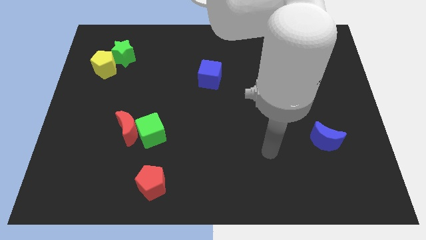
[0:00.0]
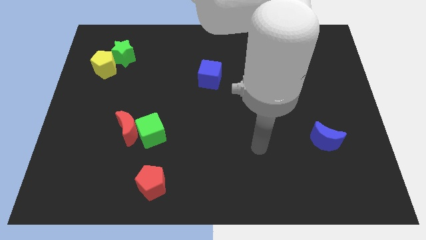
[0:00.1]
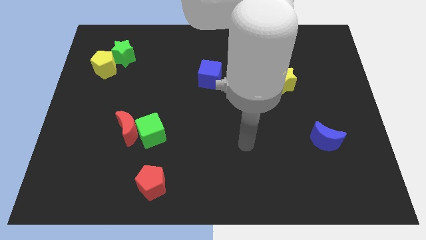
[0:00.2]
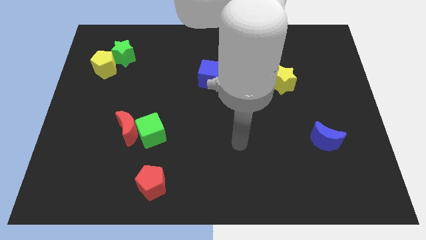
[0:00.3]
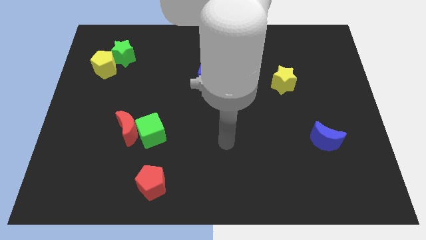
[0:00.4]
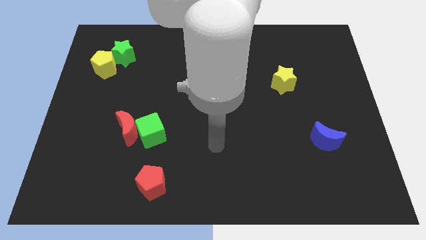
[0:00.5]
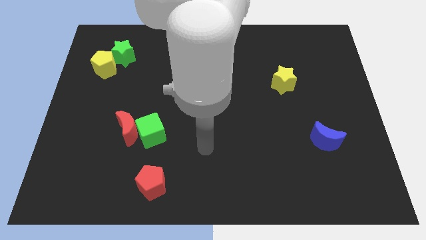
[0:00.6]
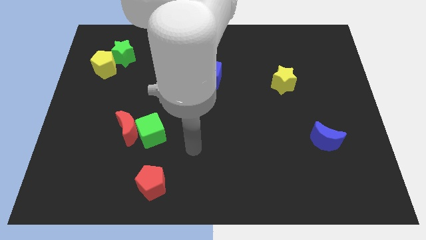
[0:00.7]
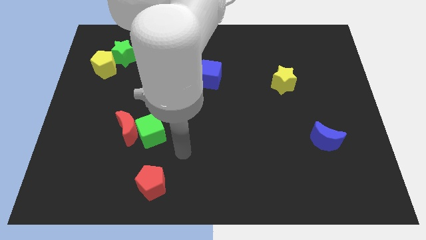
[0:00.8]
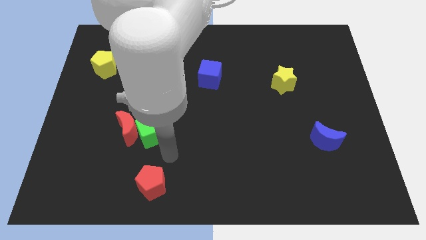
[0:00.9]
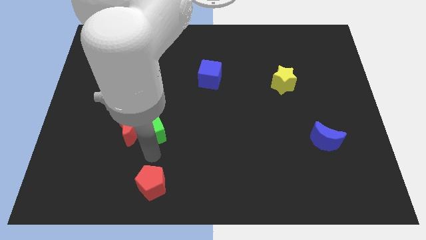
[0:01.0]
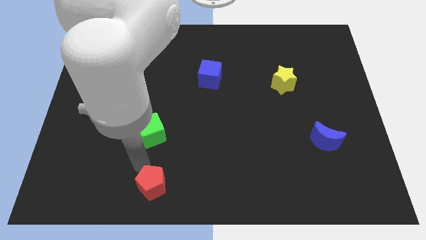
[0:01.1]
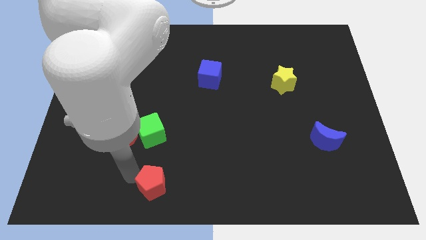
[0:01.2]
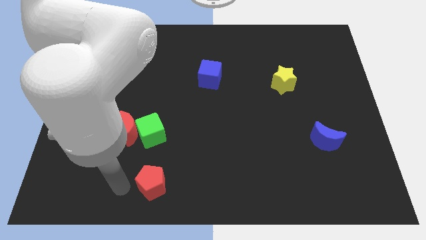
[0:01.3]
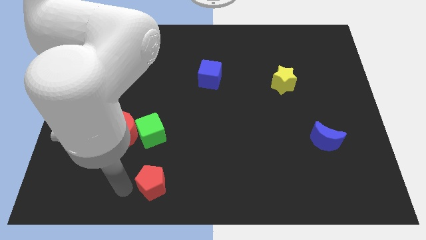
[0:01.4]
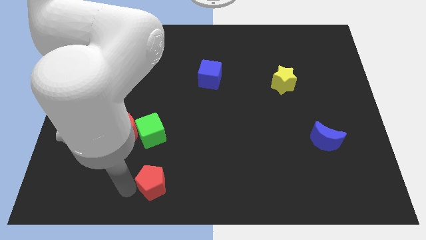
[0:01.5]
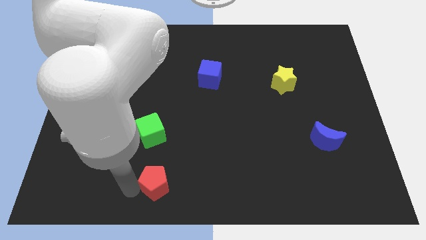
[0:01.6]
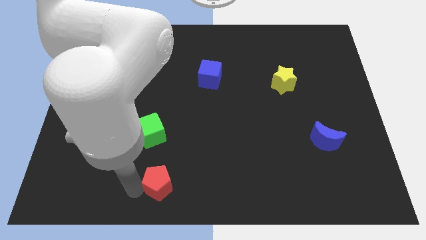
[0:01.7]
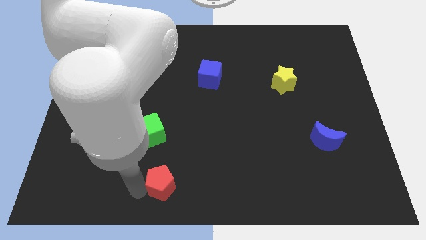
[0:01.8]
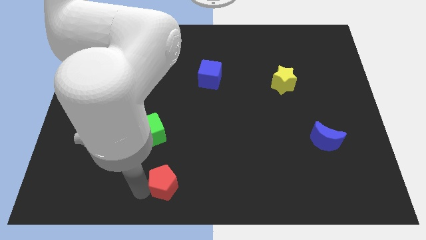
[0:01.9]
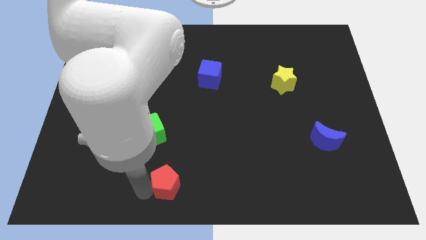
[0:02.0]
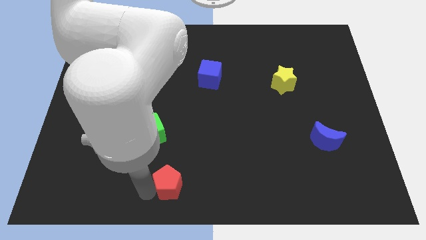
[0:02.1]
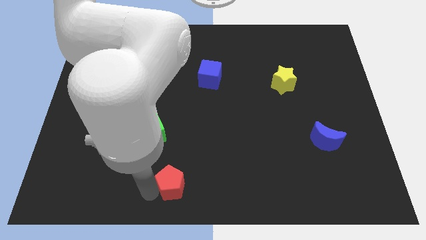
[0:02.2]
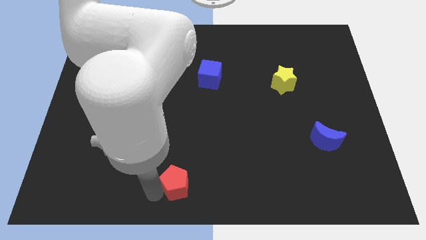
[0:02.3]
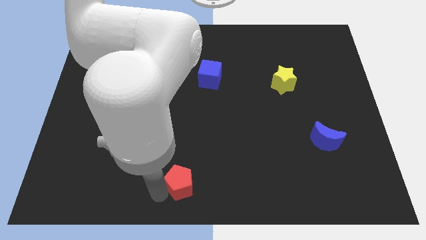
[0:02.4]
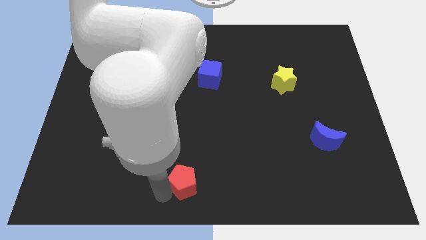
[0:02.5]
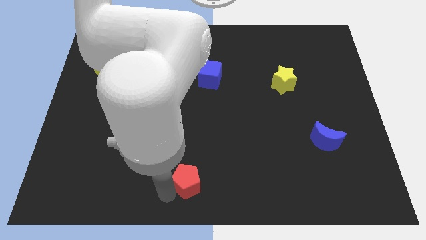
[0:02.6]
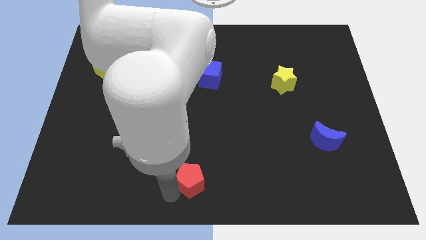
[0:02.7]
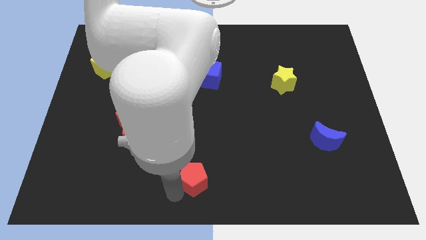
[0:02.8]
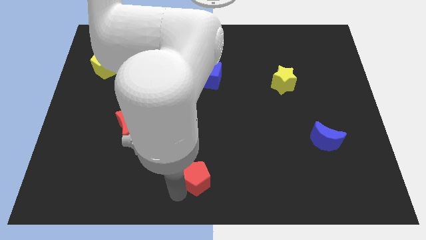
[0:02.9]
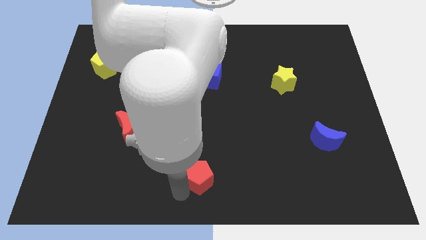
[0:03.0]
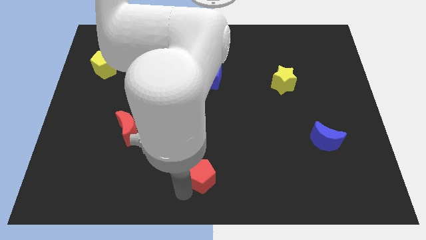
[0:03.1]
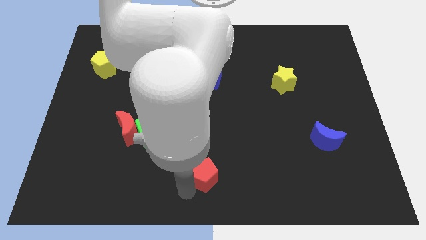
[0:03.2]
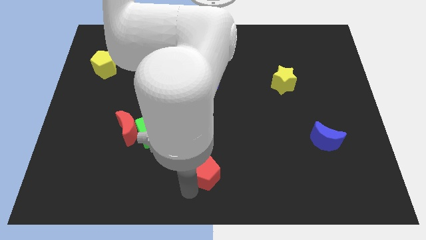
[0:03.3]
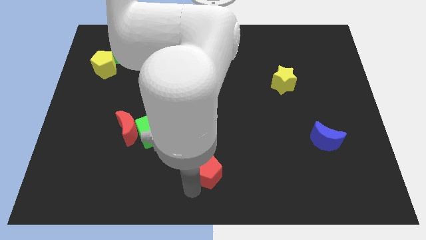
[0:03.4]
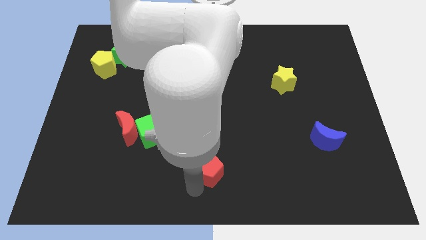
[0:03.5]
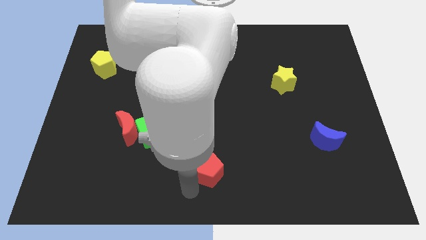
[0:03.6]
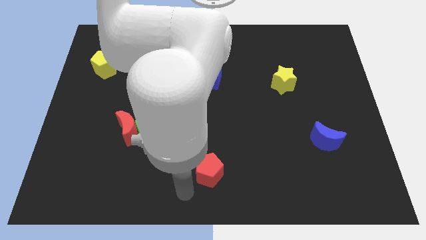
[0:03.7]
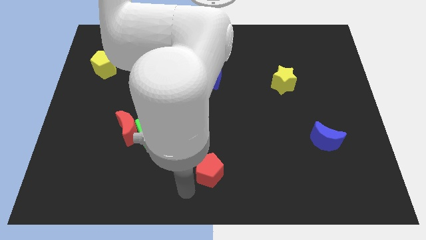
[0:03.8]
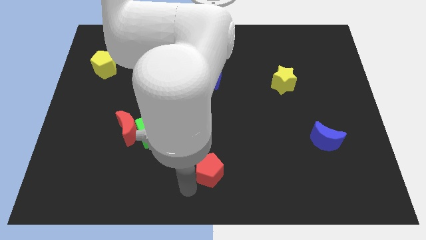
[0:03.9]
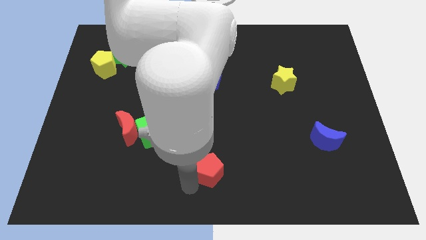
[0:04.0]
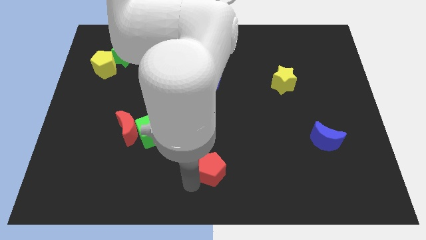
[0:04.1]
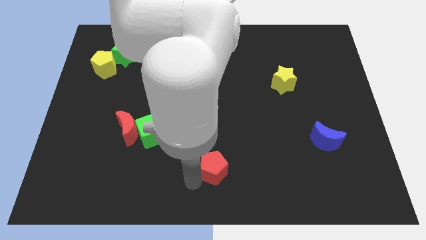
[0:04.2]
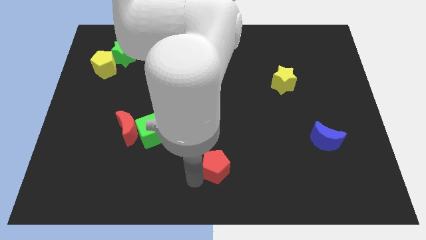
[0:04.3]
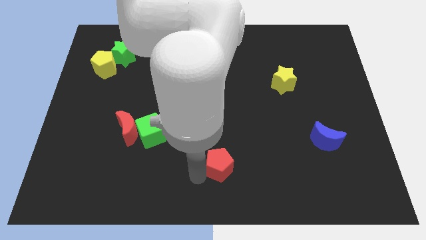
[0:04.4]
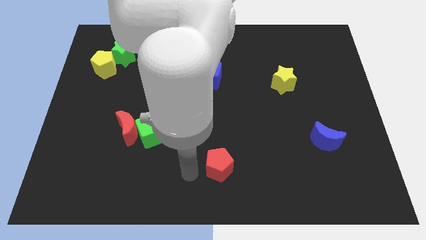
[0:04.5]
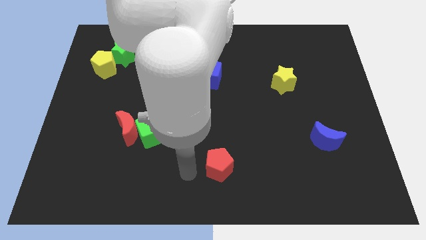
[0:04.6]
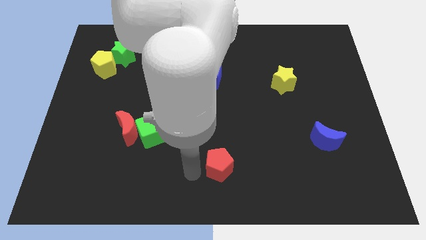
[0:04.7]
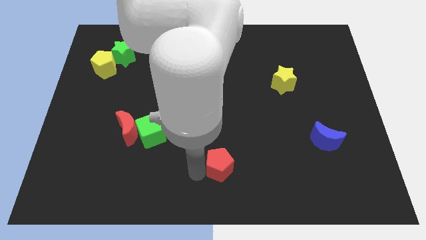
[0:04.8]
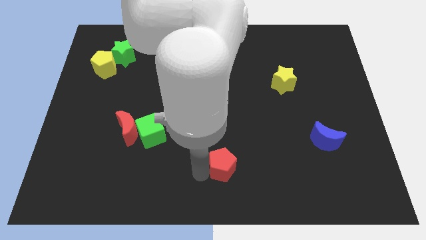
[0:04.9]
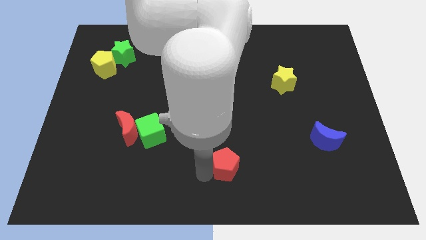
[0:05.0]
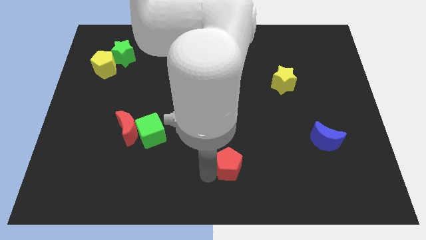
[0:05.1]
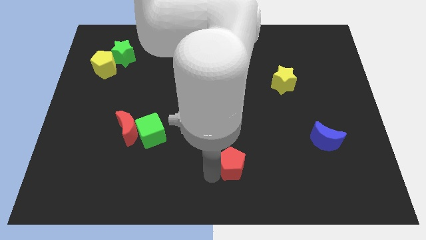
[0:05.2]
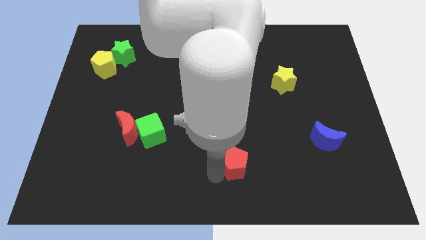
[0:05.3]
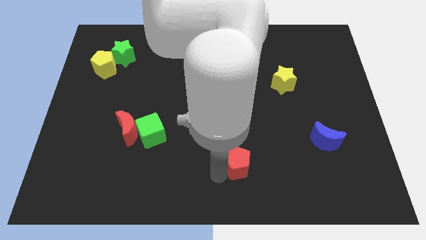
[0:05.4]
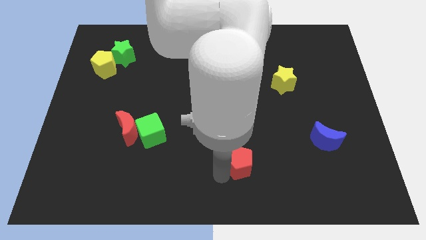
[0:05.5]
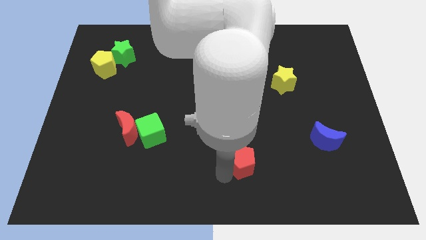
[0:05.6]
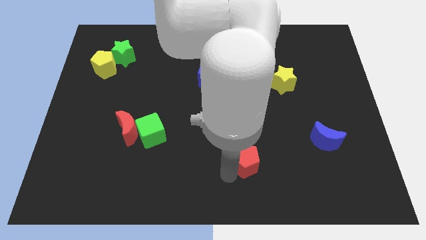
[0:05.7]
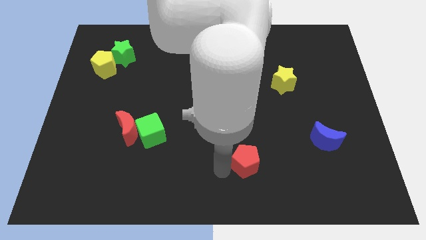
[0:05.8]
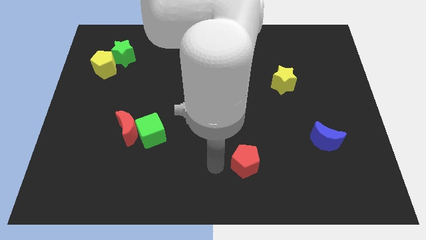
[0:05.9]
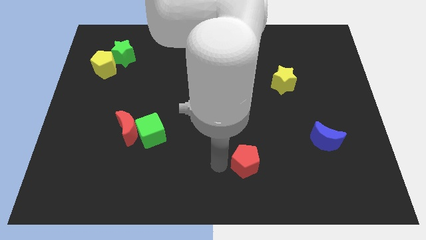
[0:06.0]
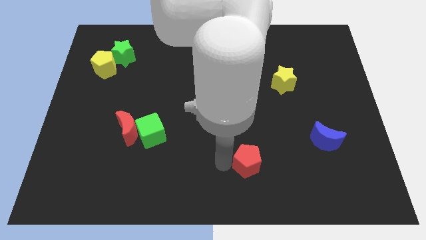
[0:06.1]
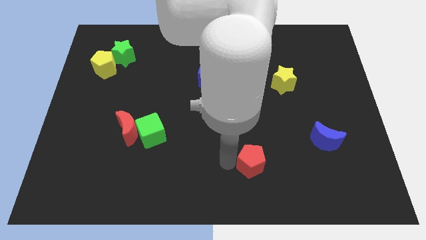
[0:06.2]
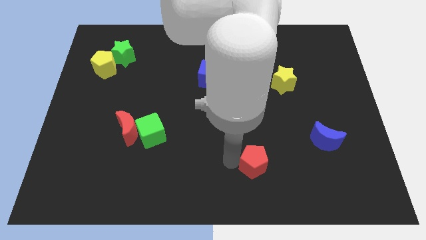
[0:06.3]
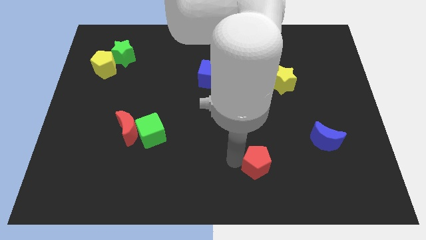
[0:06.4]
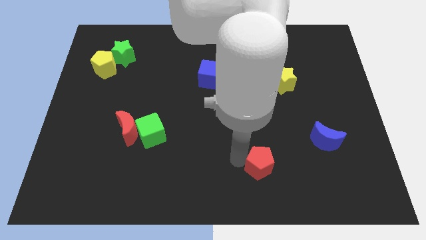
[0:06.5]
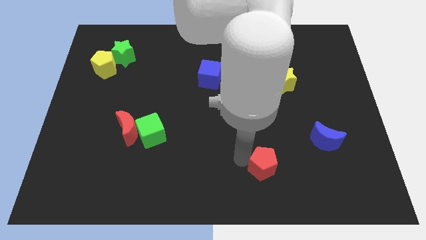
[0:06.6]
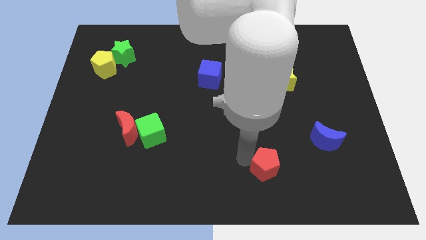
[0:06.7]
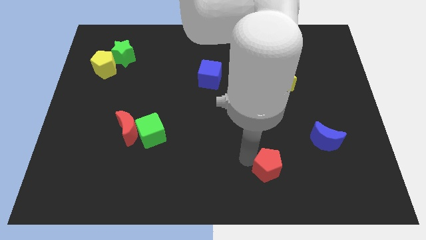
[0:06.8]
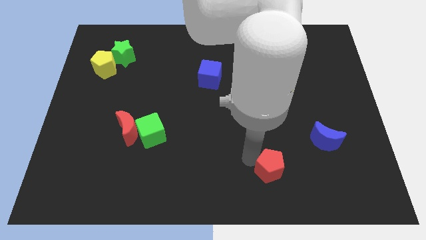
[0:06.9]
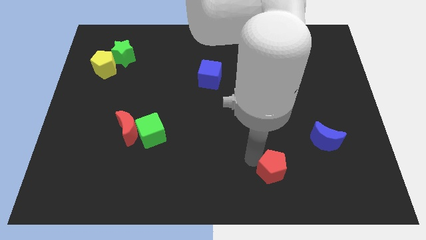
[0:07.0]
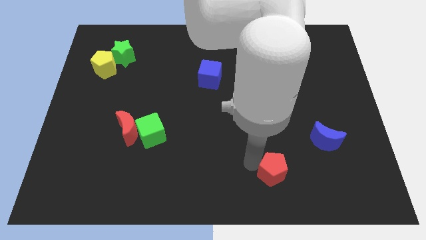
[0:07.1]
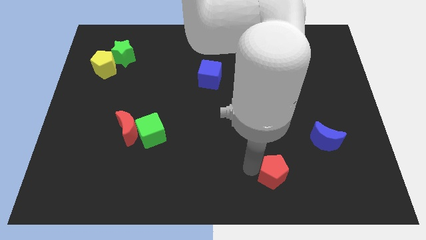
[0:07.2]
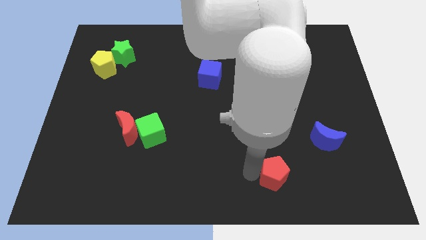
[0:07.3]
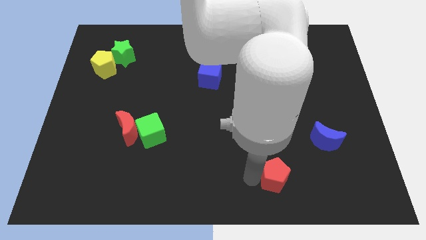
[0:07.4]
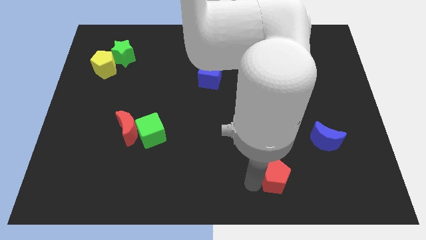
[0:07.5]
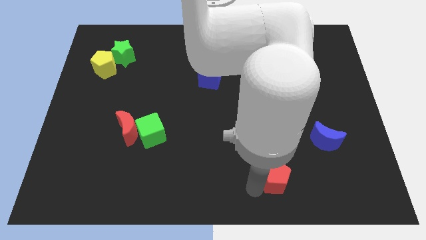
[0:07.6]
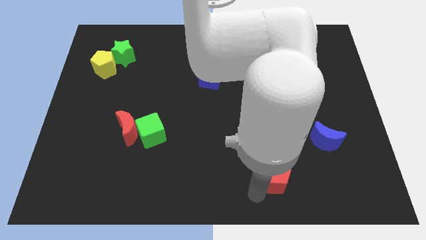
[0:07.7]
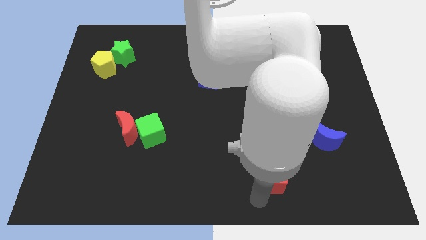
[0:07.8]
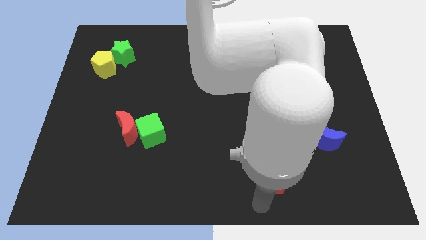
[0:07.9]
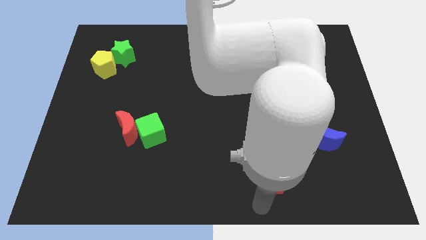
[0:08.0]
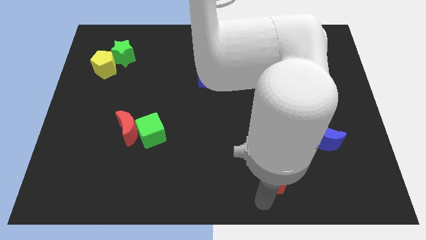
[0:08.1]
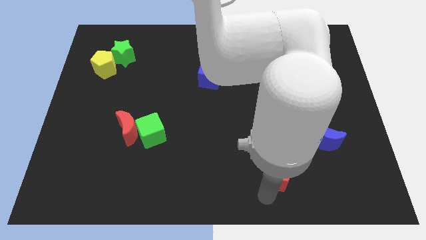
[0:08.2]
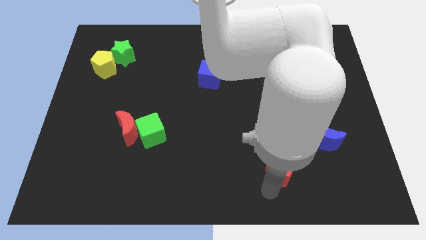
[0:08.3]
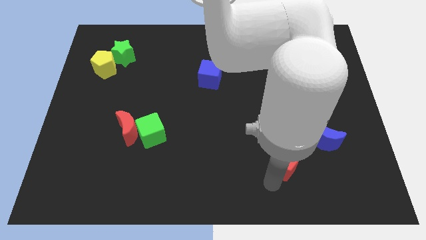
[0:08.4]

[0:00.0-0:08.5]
move the red pentagon diagonally down and to the left of the blue moon
